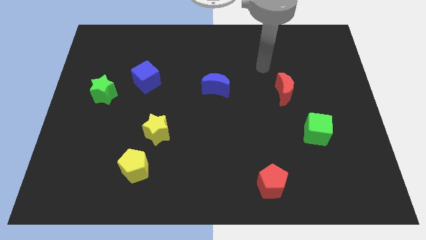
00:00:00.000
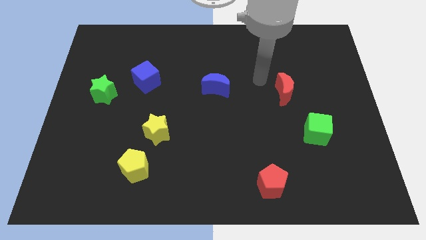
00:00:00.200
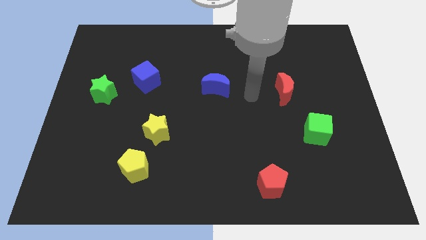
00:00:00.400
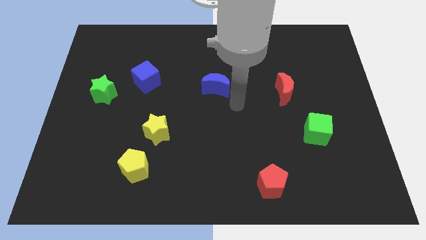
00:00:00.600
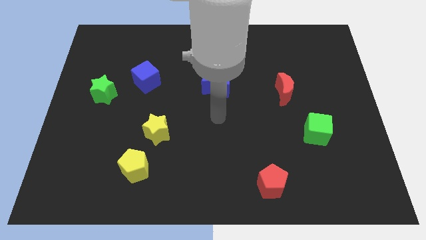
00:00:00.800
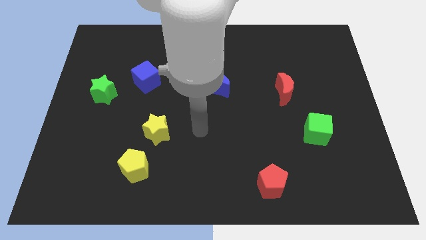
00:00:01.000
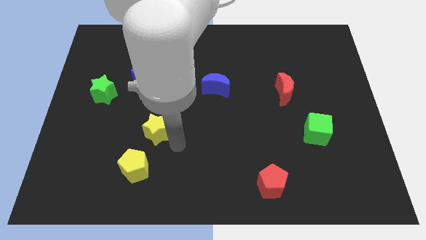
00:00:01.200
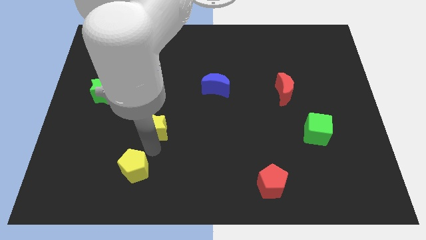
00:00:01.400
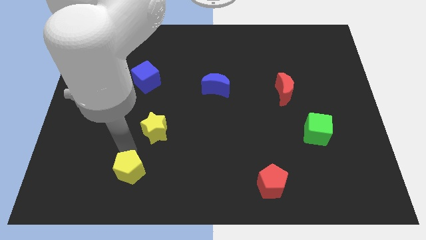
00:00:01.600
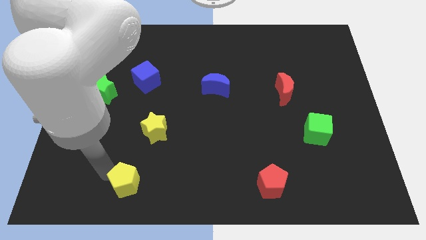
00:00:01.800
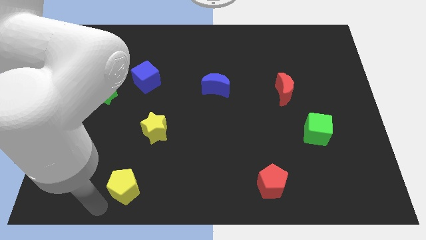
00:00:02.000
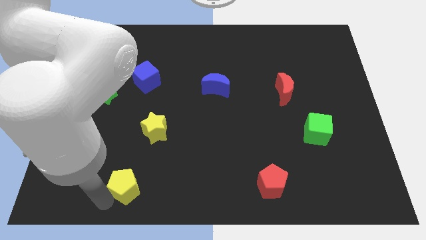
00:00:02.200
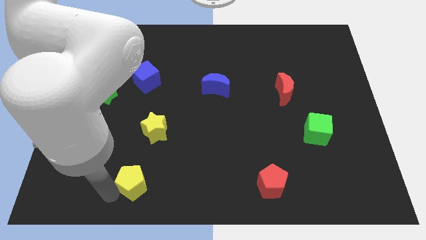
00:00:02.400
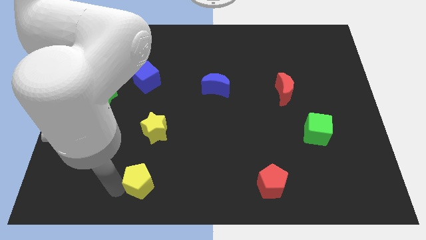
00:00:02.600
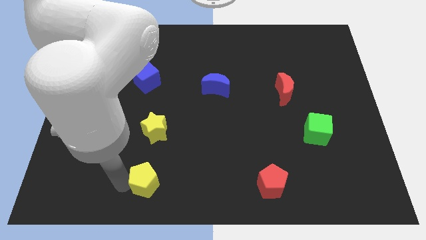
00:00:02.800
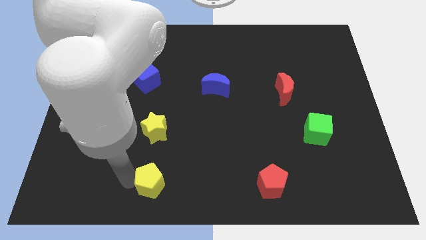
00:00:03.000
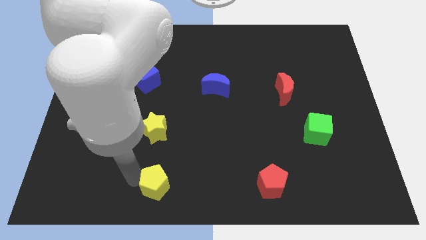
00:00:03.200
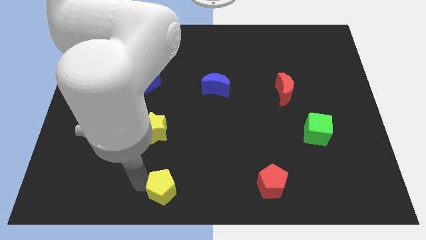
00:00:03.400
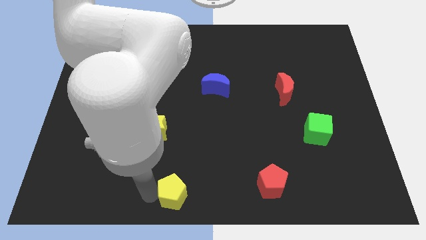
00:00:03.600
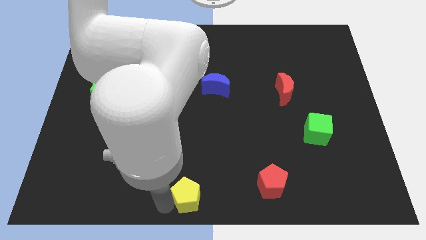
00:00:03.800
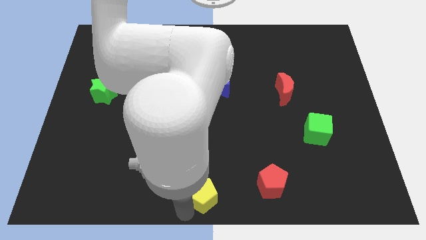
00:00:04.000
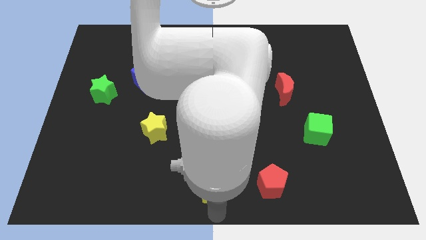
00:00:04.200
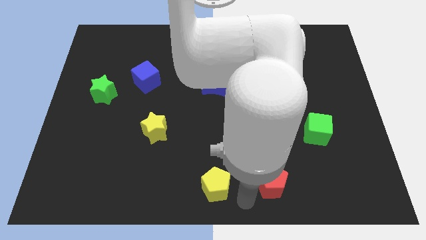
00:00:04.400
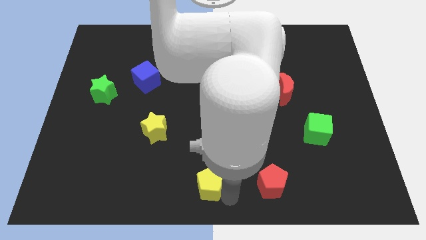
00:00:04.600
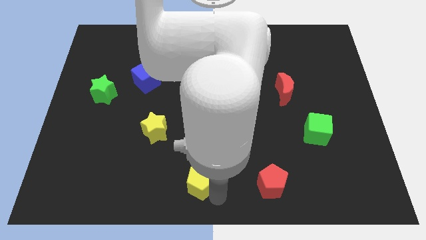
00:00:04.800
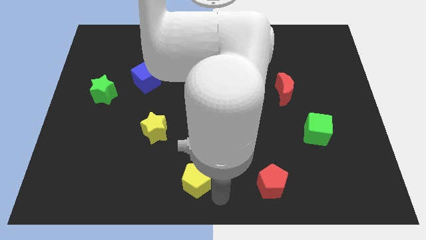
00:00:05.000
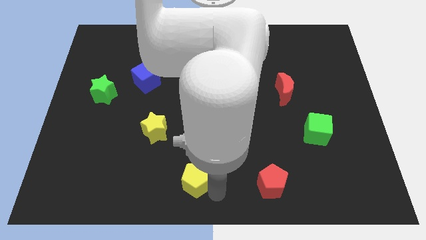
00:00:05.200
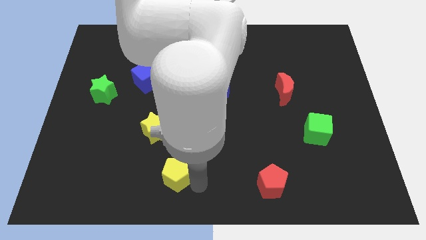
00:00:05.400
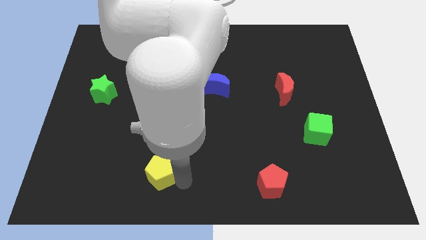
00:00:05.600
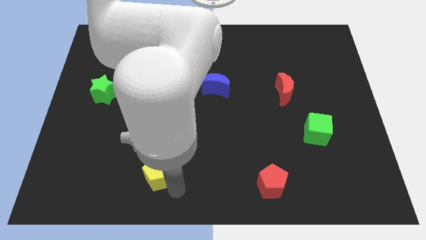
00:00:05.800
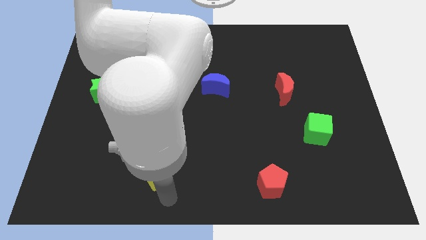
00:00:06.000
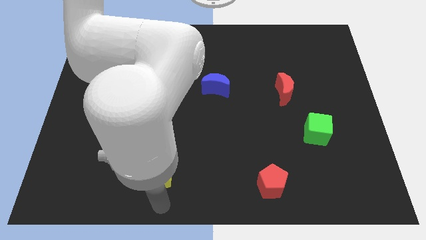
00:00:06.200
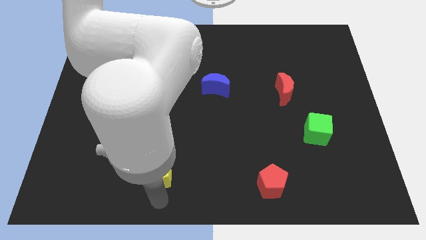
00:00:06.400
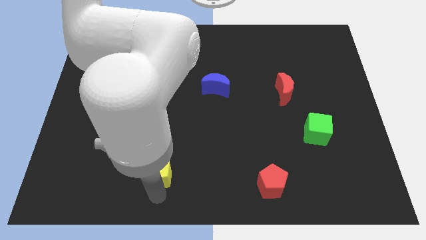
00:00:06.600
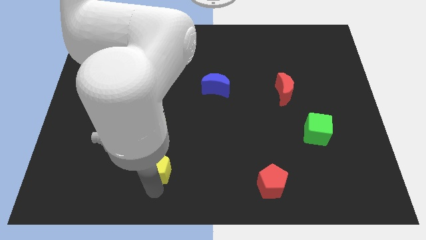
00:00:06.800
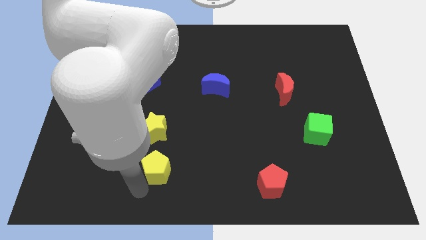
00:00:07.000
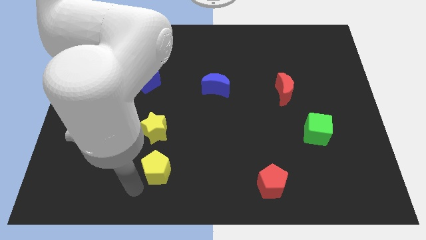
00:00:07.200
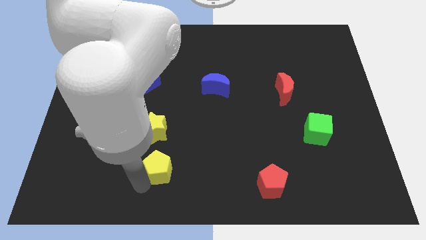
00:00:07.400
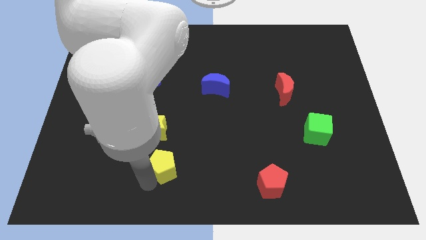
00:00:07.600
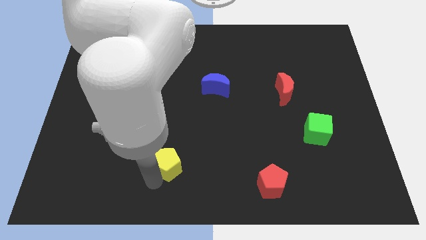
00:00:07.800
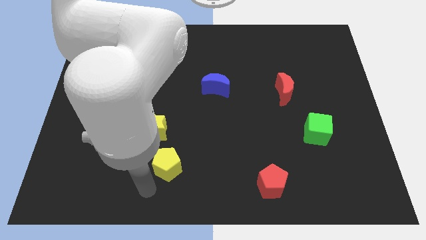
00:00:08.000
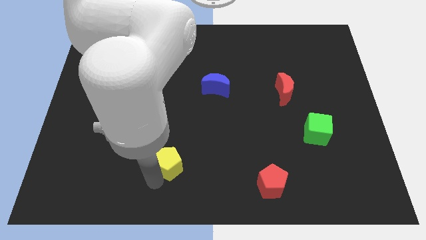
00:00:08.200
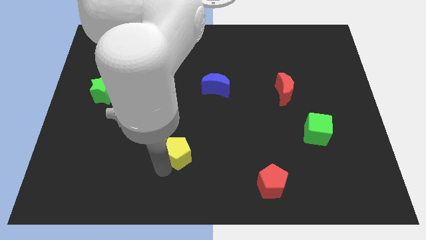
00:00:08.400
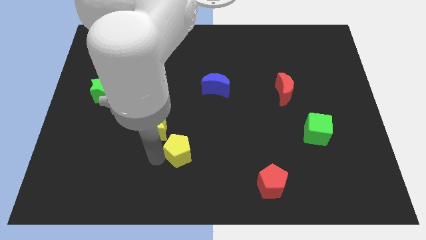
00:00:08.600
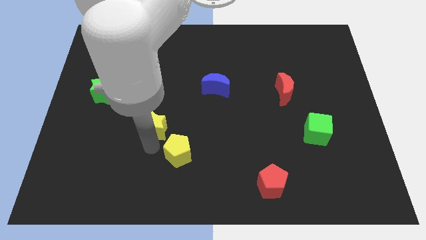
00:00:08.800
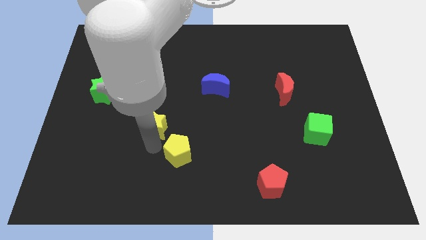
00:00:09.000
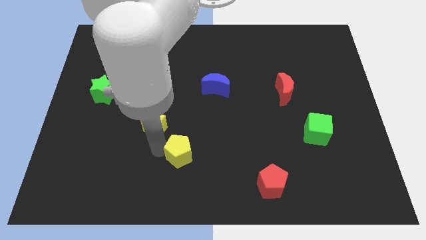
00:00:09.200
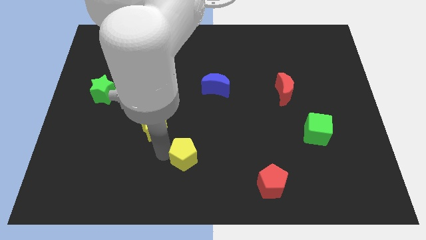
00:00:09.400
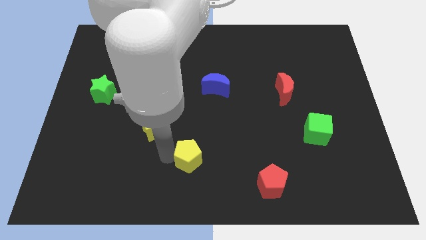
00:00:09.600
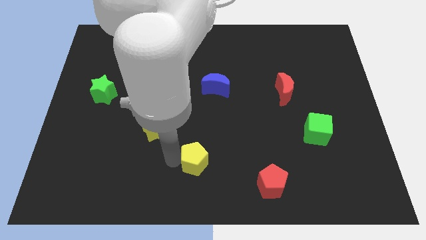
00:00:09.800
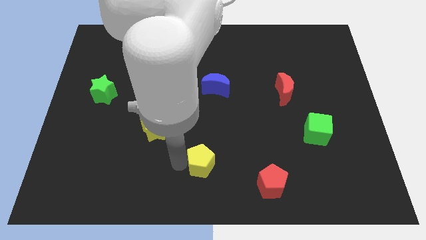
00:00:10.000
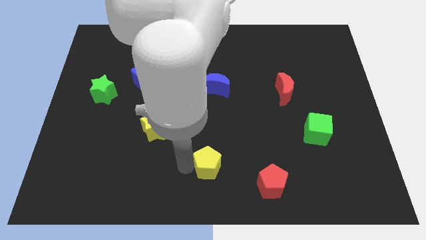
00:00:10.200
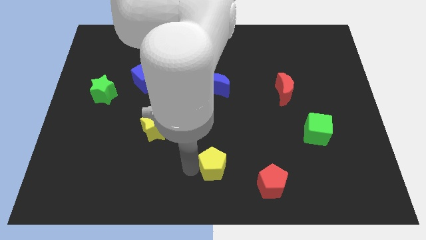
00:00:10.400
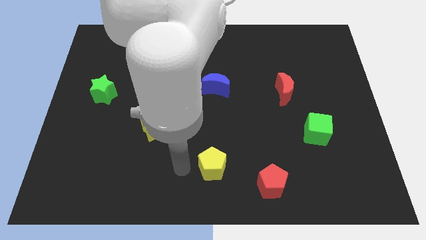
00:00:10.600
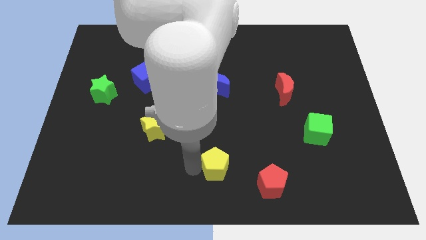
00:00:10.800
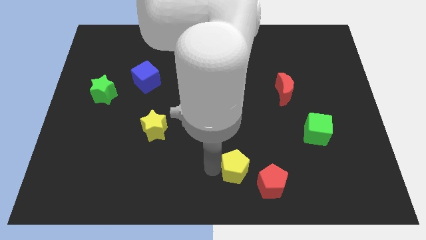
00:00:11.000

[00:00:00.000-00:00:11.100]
move the yellow pentagon right

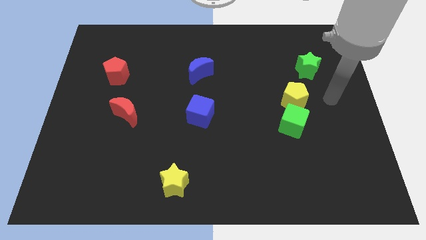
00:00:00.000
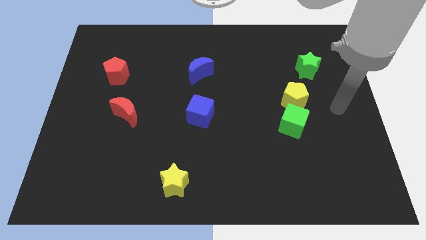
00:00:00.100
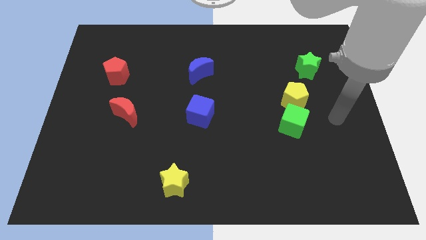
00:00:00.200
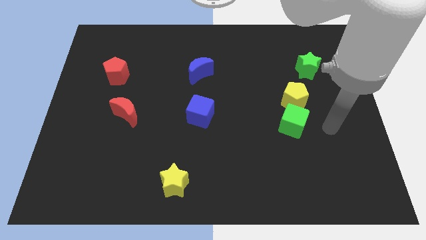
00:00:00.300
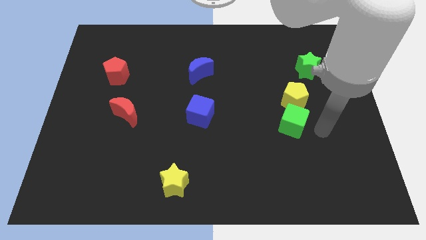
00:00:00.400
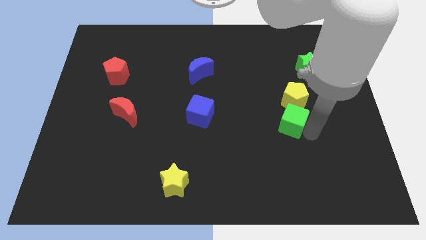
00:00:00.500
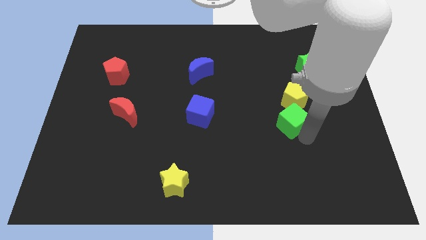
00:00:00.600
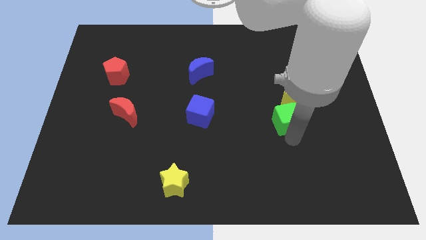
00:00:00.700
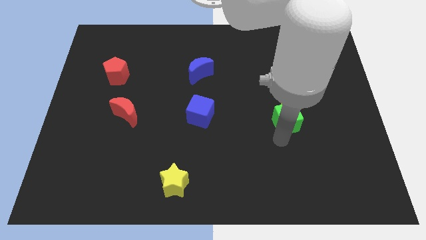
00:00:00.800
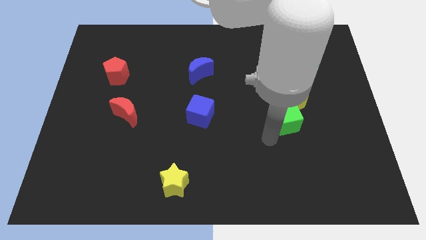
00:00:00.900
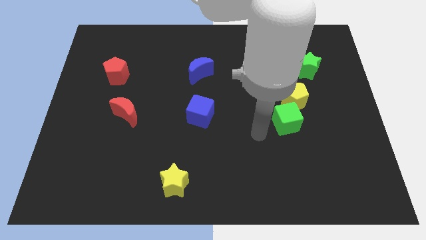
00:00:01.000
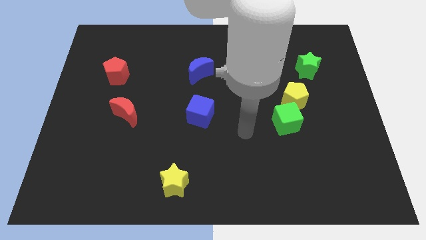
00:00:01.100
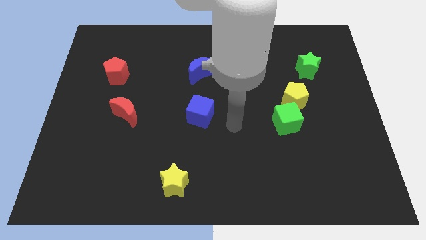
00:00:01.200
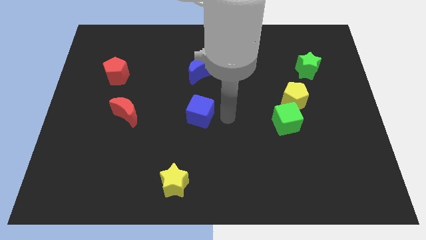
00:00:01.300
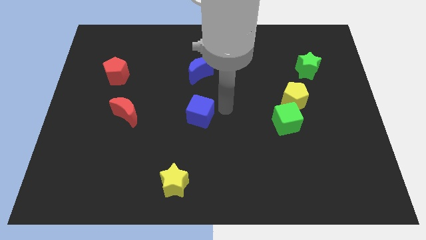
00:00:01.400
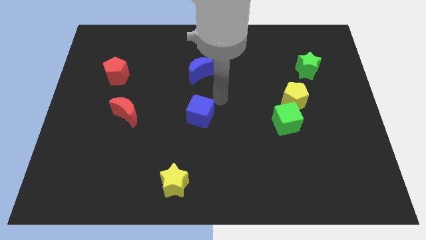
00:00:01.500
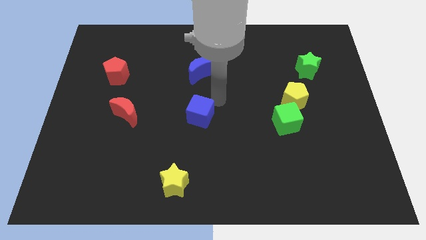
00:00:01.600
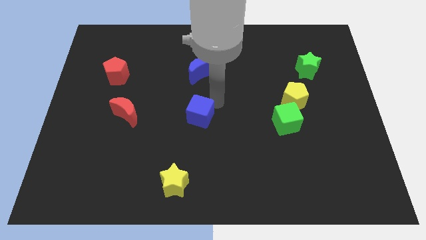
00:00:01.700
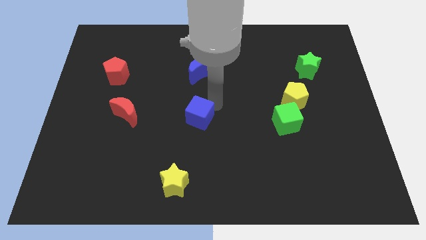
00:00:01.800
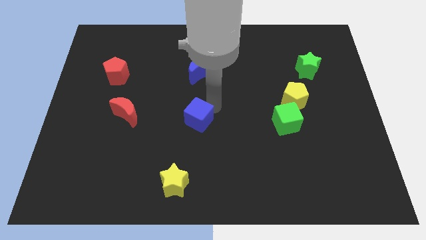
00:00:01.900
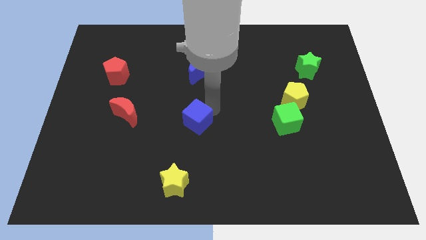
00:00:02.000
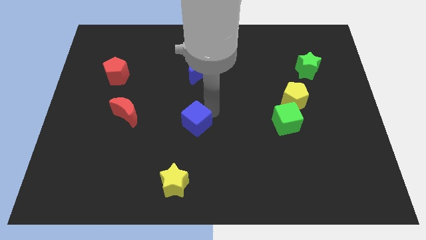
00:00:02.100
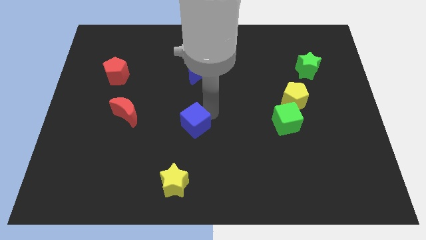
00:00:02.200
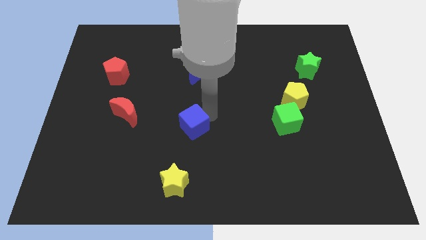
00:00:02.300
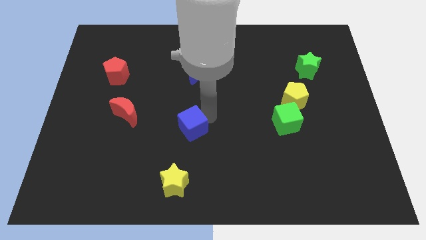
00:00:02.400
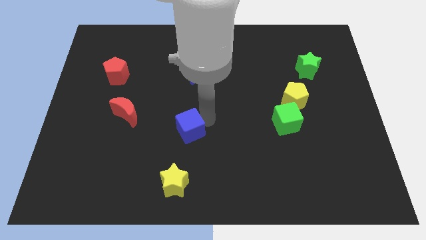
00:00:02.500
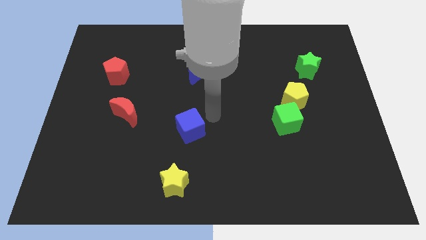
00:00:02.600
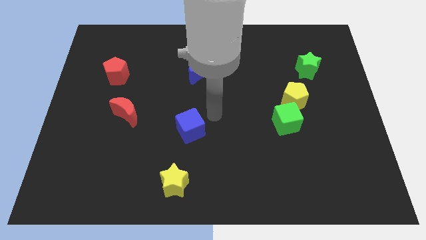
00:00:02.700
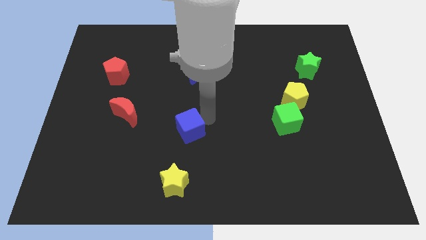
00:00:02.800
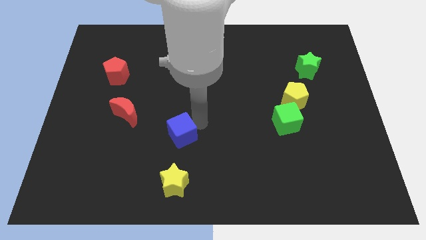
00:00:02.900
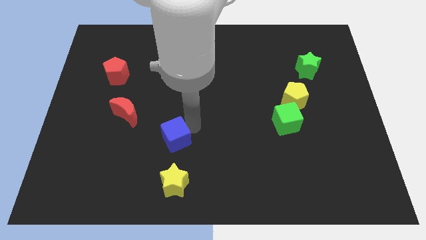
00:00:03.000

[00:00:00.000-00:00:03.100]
slide the blue cube a bit down and then to the left
